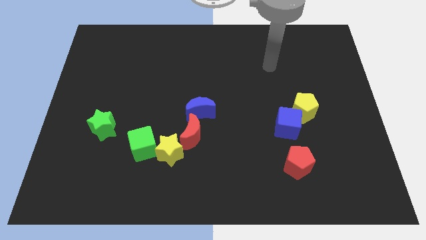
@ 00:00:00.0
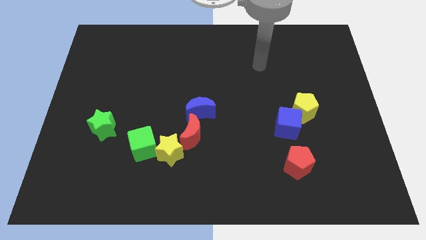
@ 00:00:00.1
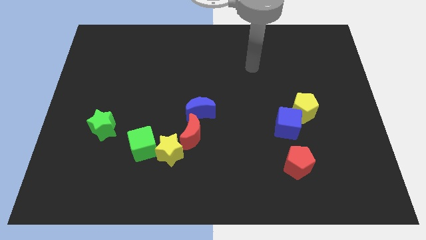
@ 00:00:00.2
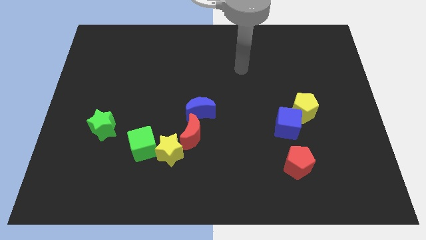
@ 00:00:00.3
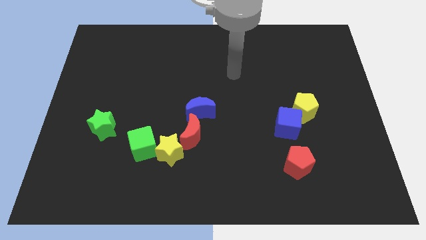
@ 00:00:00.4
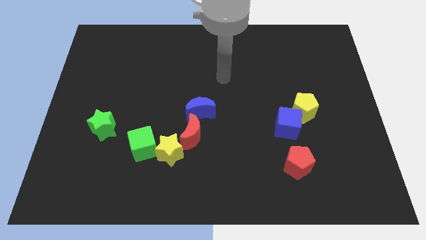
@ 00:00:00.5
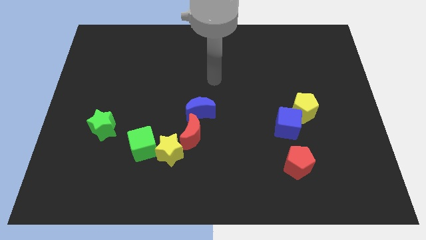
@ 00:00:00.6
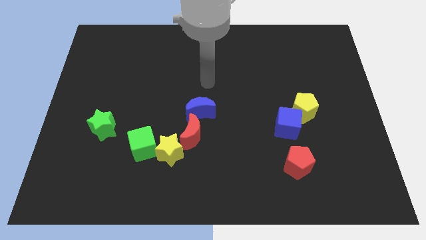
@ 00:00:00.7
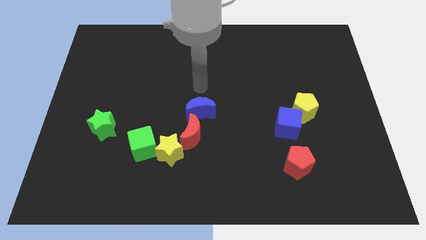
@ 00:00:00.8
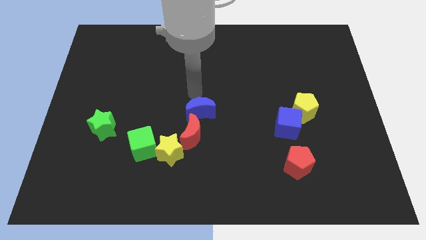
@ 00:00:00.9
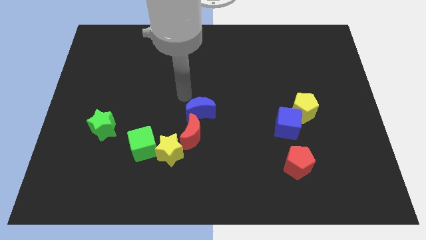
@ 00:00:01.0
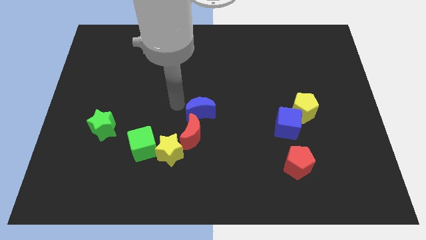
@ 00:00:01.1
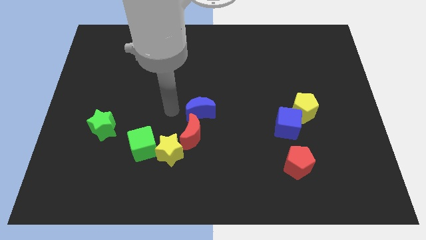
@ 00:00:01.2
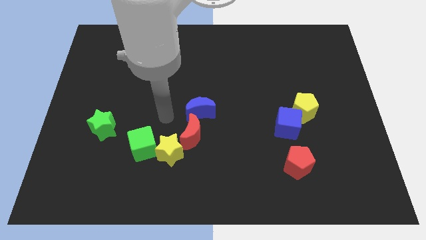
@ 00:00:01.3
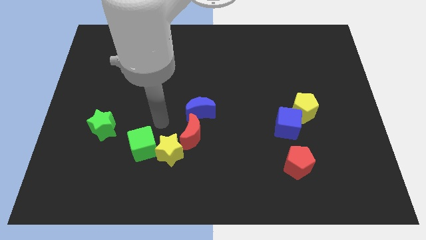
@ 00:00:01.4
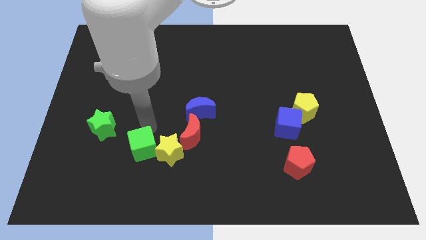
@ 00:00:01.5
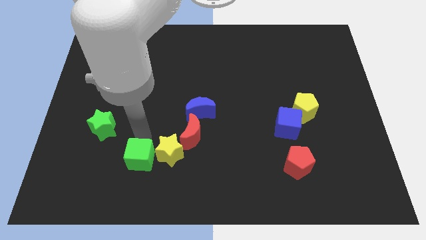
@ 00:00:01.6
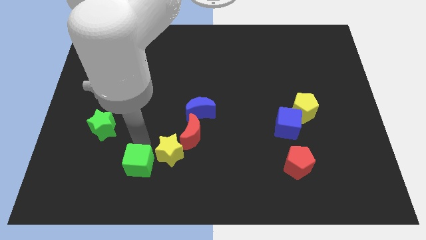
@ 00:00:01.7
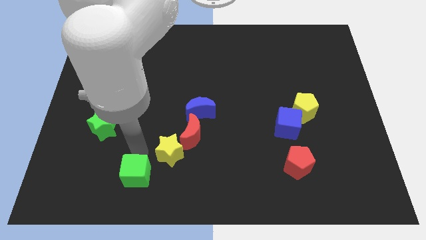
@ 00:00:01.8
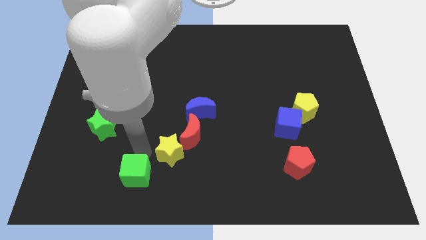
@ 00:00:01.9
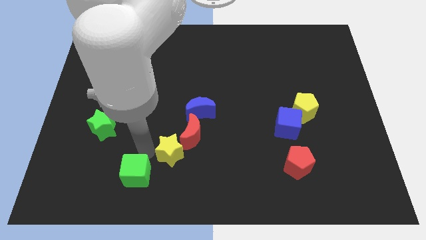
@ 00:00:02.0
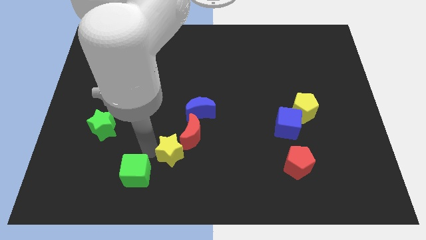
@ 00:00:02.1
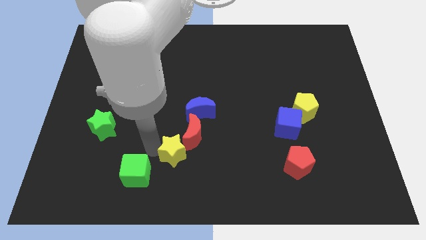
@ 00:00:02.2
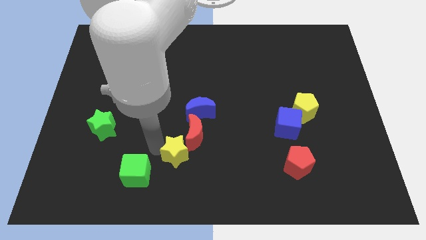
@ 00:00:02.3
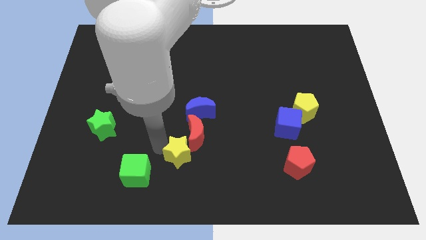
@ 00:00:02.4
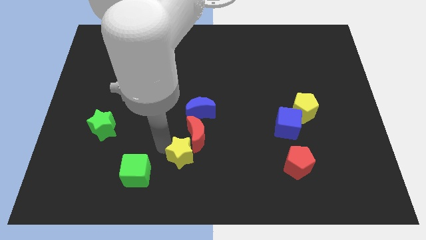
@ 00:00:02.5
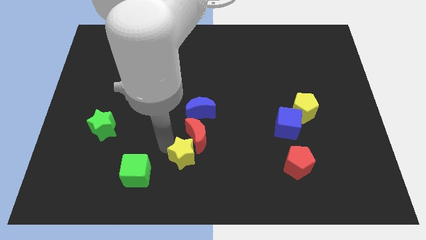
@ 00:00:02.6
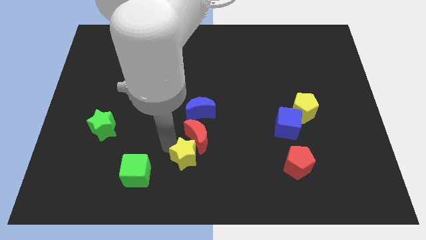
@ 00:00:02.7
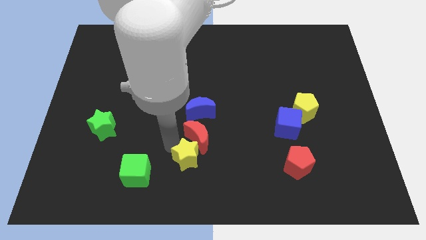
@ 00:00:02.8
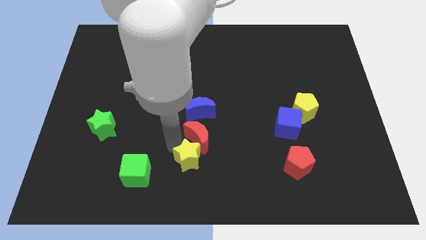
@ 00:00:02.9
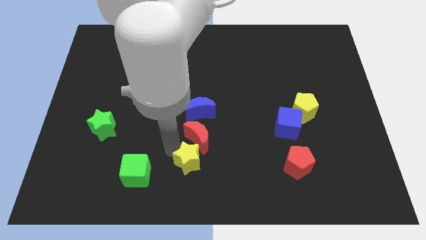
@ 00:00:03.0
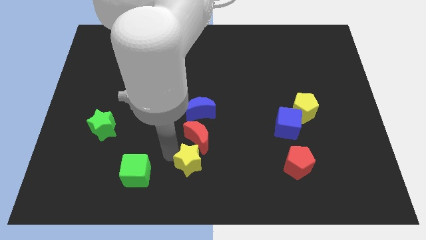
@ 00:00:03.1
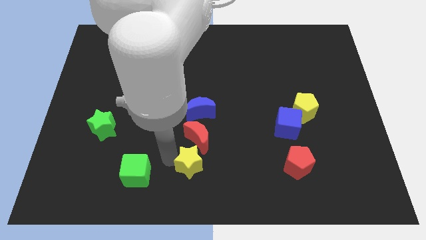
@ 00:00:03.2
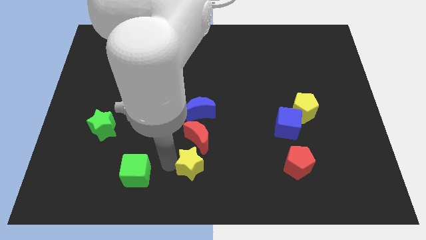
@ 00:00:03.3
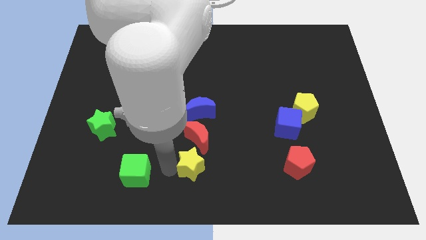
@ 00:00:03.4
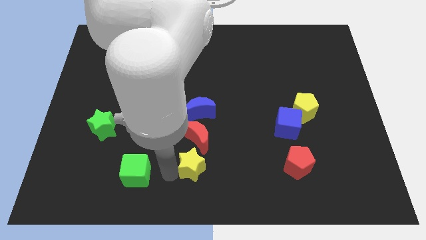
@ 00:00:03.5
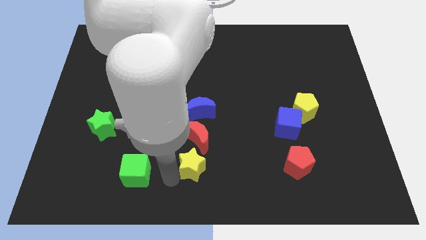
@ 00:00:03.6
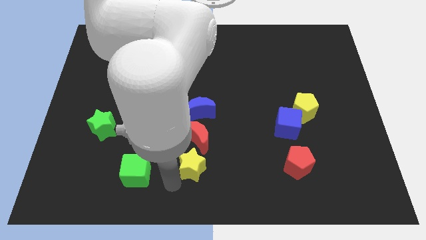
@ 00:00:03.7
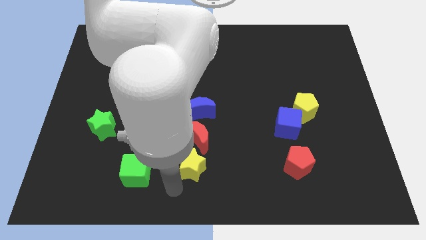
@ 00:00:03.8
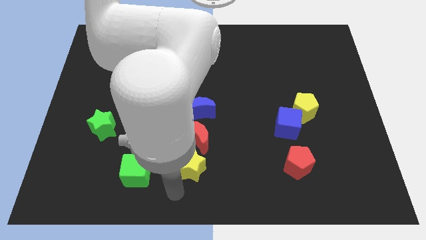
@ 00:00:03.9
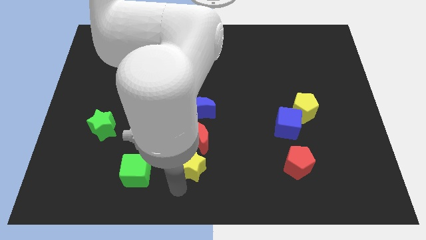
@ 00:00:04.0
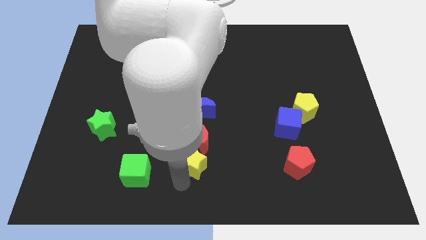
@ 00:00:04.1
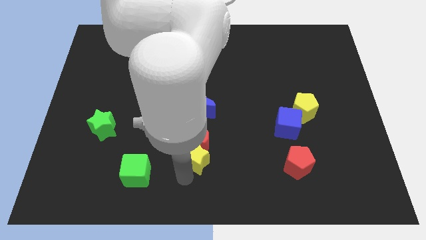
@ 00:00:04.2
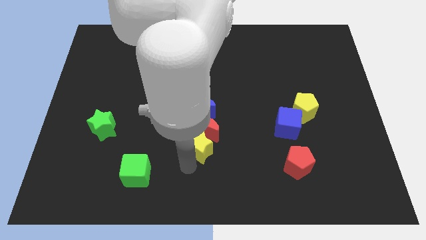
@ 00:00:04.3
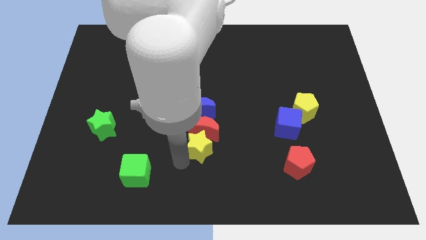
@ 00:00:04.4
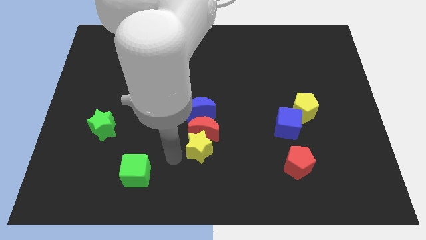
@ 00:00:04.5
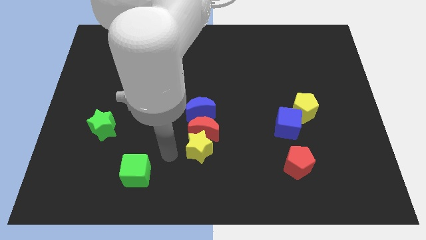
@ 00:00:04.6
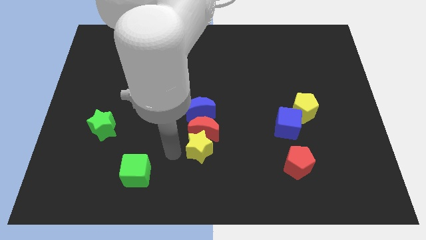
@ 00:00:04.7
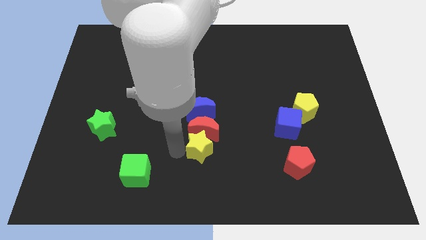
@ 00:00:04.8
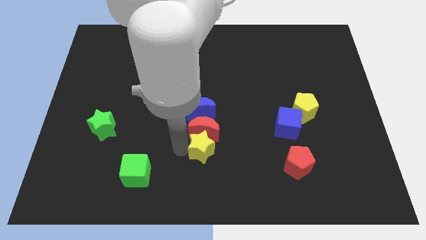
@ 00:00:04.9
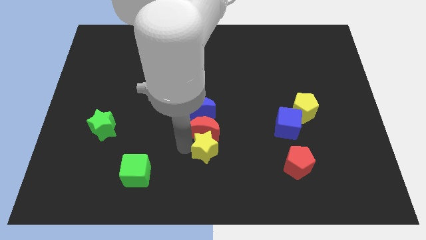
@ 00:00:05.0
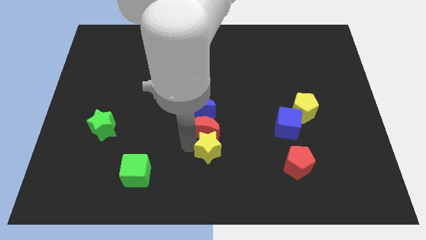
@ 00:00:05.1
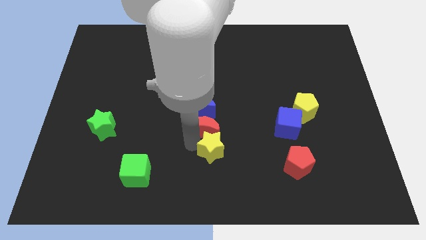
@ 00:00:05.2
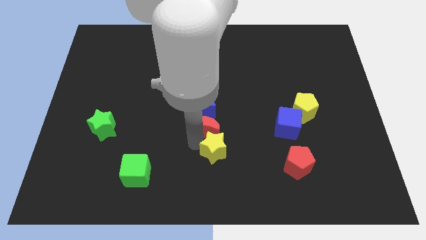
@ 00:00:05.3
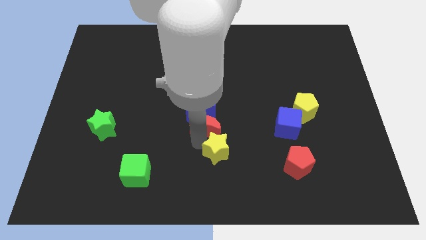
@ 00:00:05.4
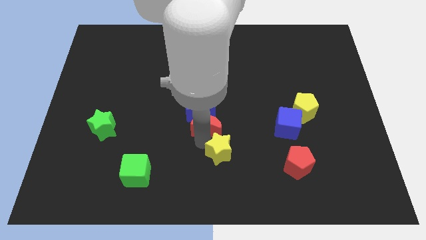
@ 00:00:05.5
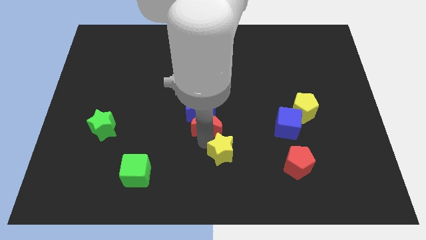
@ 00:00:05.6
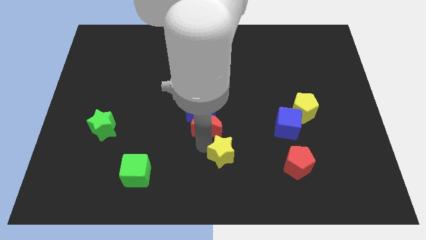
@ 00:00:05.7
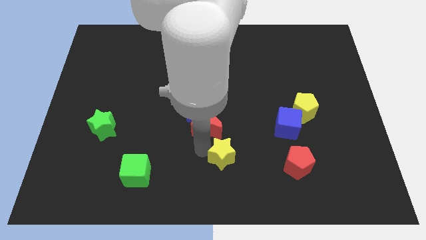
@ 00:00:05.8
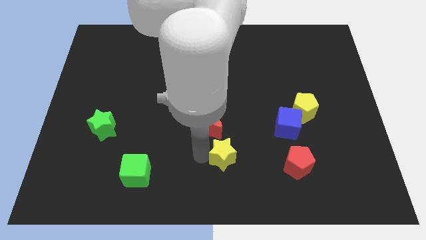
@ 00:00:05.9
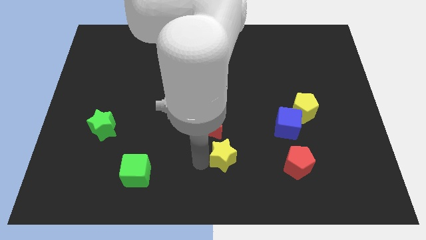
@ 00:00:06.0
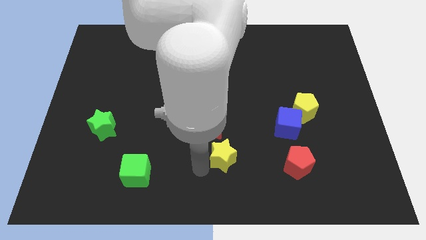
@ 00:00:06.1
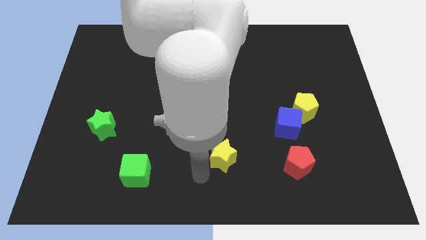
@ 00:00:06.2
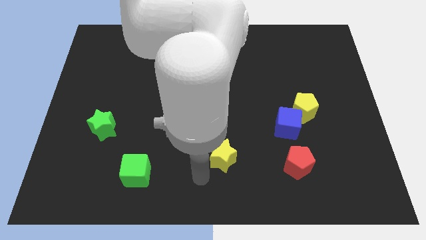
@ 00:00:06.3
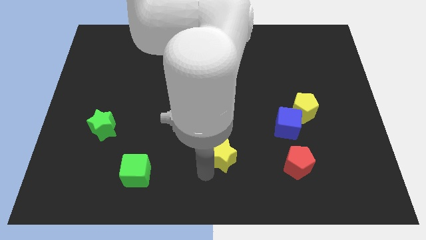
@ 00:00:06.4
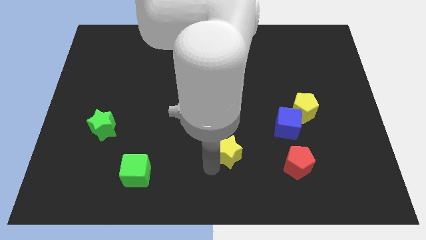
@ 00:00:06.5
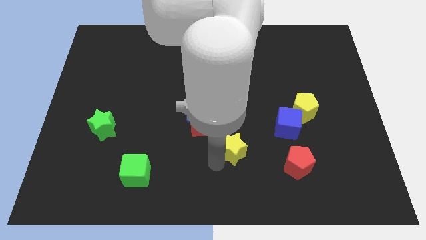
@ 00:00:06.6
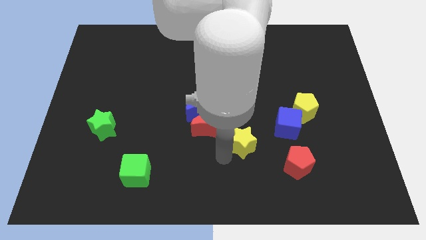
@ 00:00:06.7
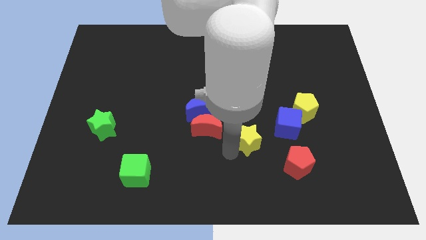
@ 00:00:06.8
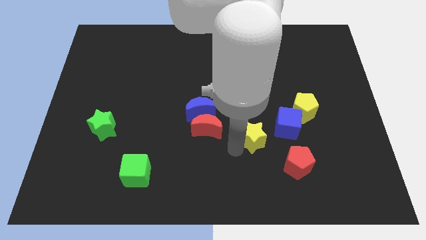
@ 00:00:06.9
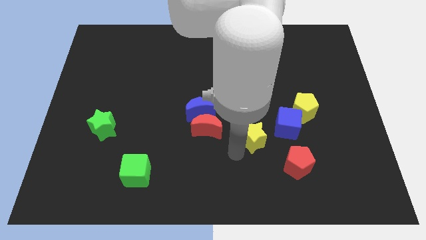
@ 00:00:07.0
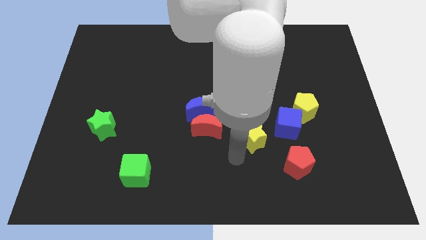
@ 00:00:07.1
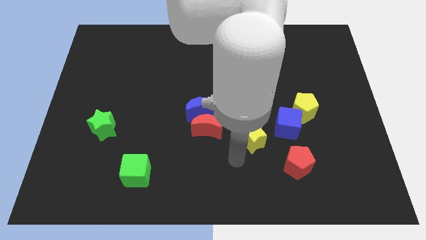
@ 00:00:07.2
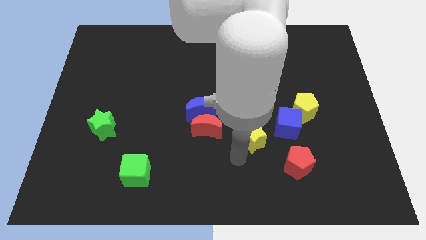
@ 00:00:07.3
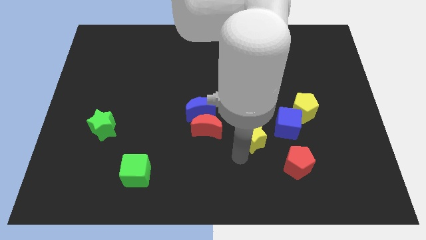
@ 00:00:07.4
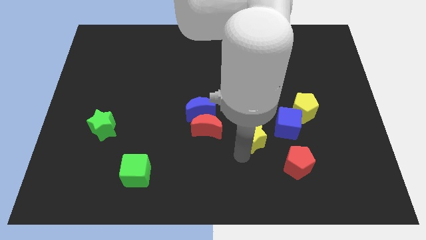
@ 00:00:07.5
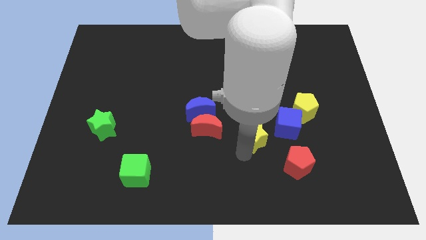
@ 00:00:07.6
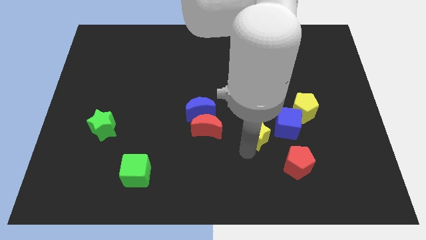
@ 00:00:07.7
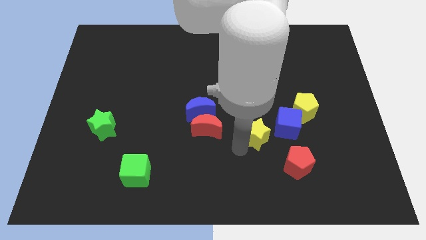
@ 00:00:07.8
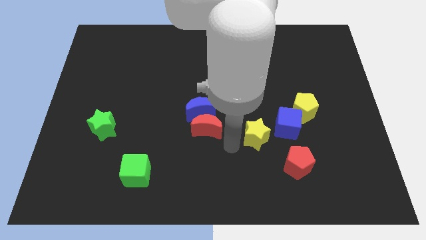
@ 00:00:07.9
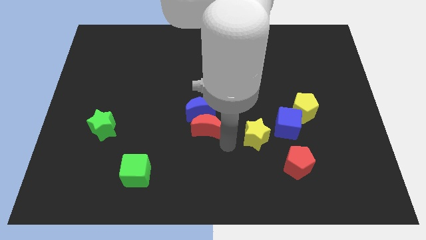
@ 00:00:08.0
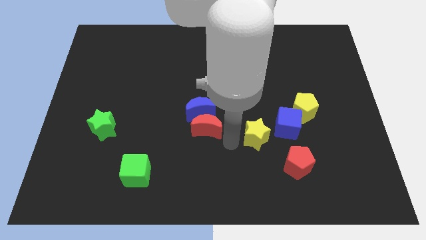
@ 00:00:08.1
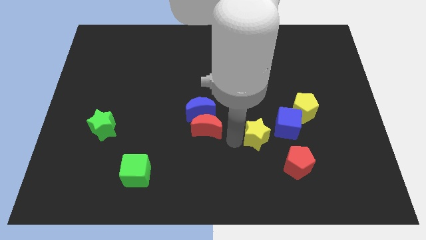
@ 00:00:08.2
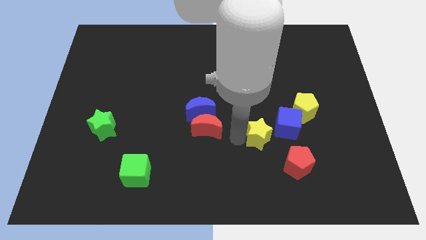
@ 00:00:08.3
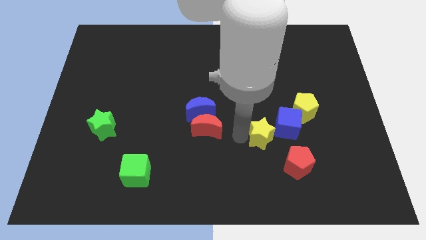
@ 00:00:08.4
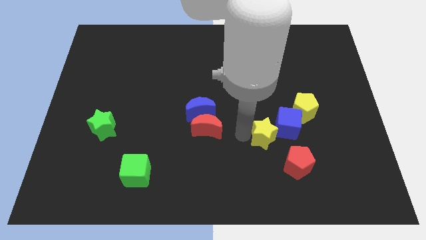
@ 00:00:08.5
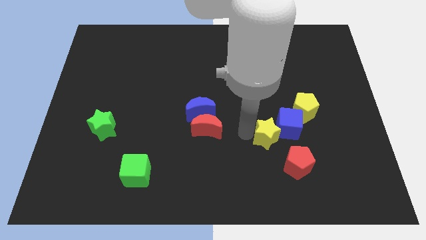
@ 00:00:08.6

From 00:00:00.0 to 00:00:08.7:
move the yellow star to the blue cube
